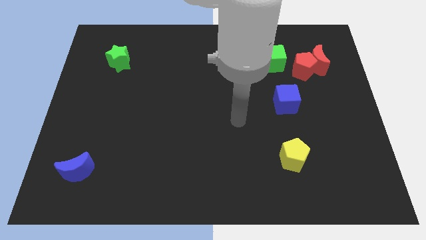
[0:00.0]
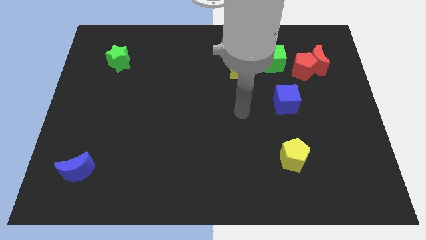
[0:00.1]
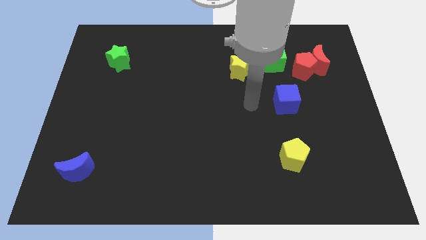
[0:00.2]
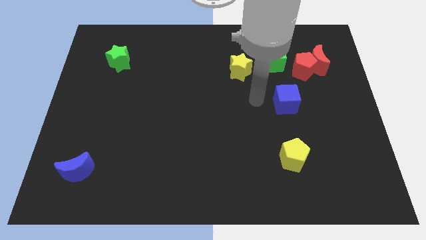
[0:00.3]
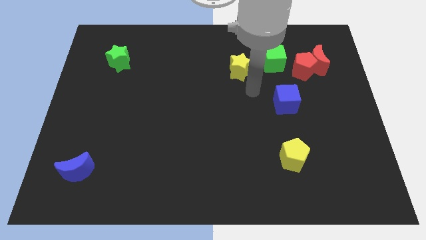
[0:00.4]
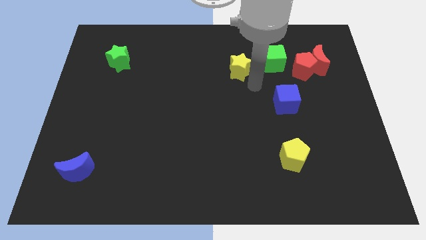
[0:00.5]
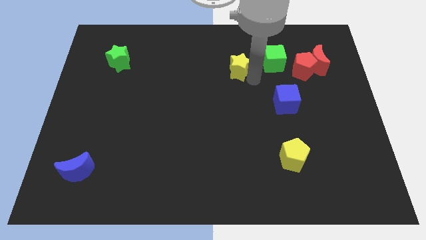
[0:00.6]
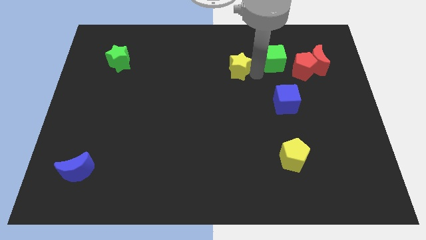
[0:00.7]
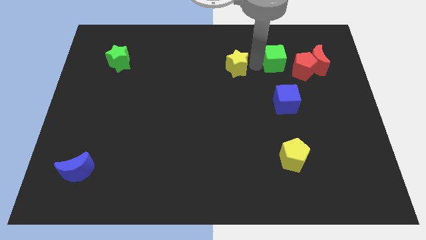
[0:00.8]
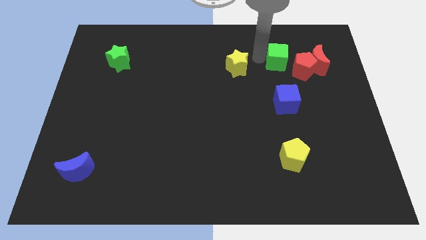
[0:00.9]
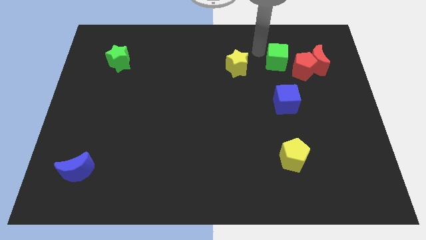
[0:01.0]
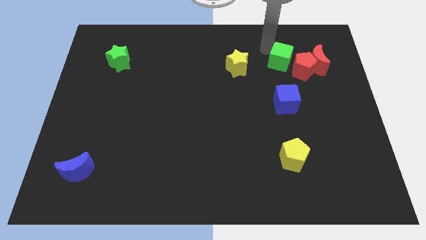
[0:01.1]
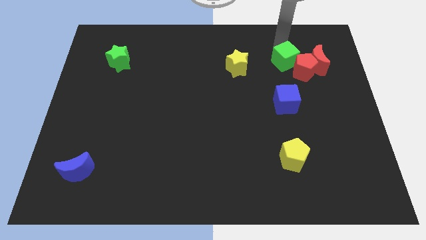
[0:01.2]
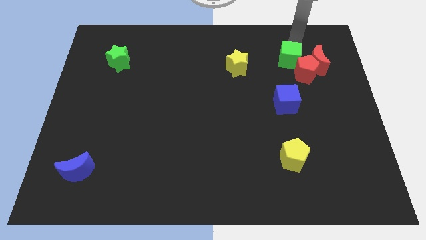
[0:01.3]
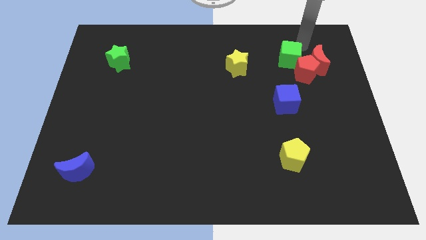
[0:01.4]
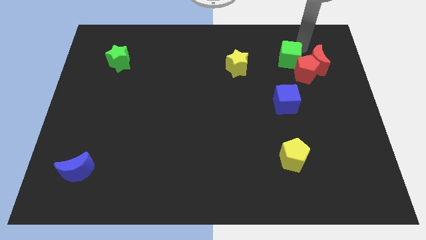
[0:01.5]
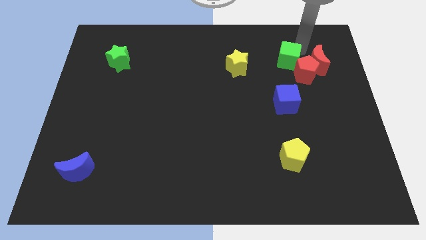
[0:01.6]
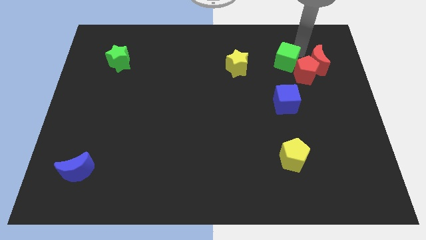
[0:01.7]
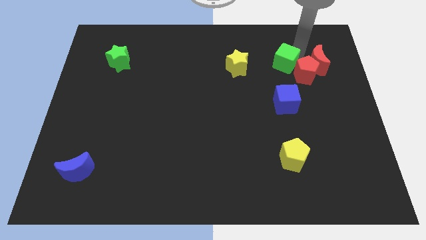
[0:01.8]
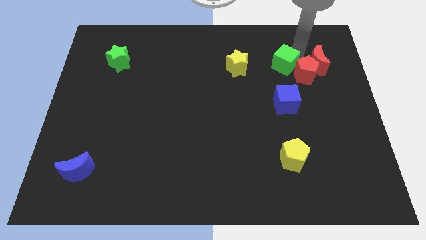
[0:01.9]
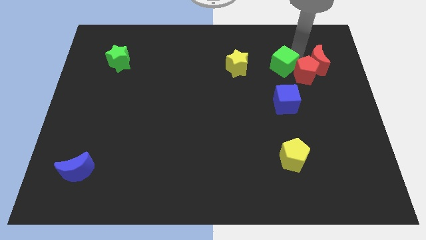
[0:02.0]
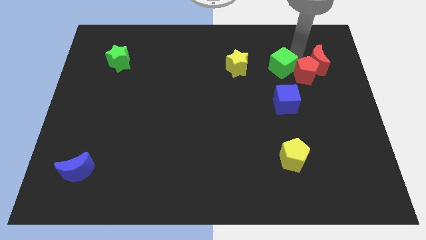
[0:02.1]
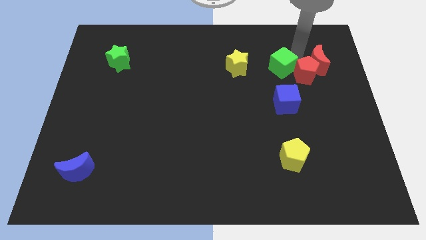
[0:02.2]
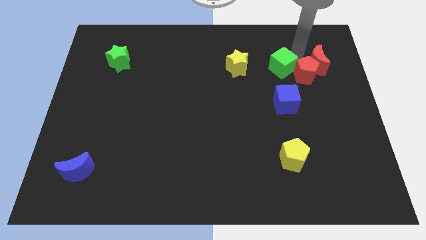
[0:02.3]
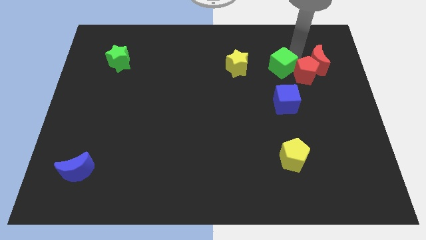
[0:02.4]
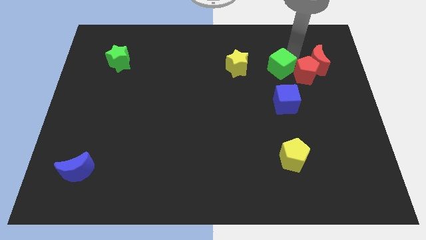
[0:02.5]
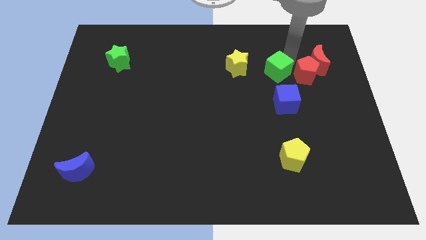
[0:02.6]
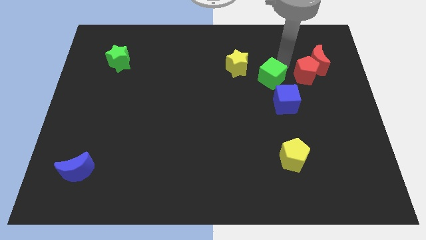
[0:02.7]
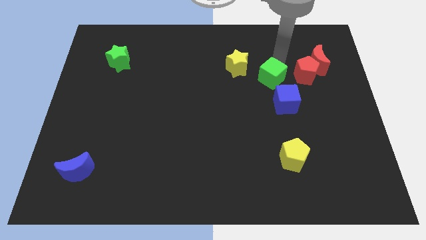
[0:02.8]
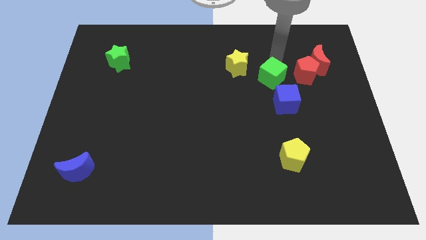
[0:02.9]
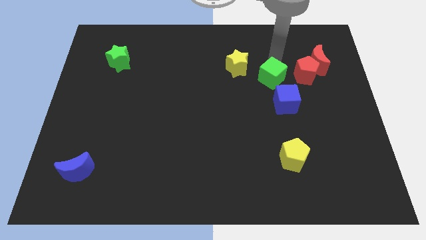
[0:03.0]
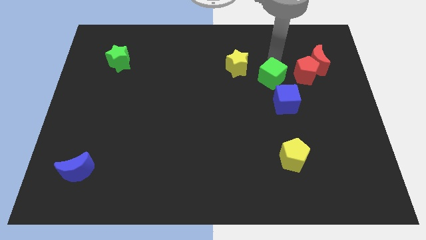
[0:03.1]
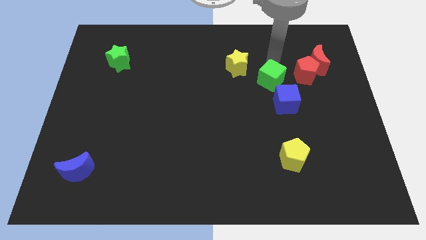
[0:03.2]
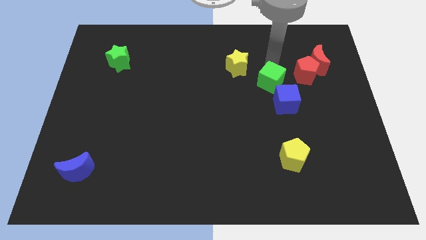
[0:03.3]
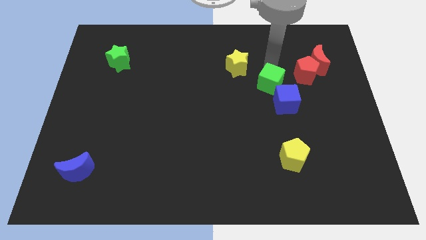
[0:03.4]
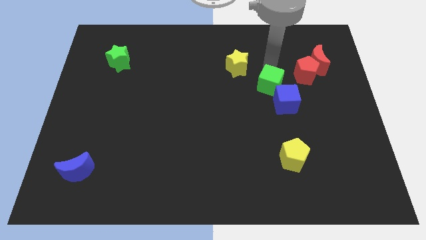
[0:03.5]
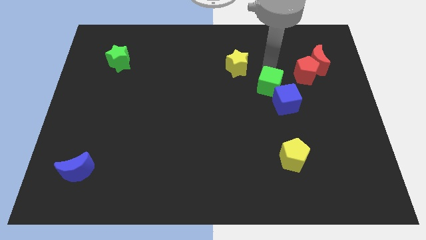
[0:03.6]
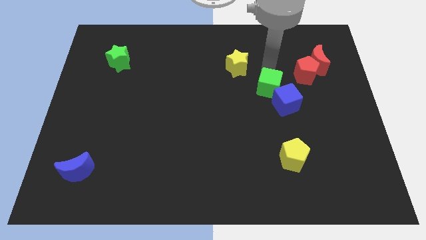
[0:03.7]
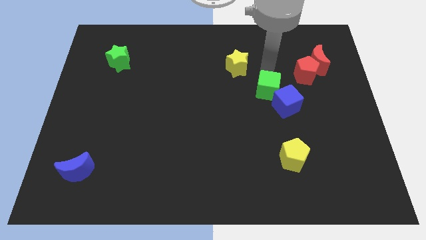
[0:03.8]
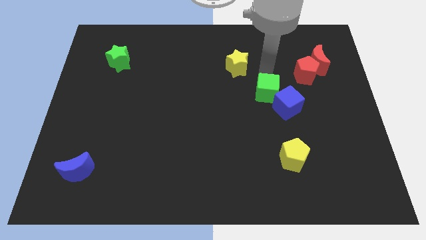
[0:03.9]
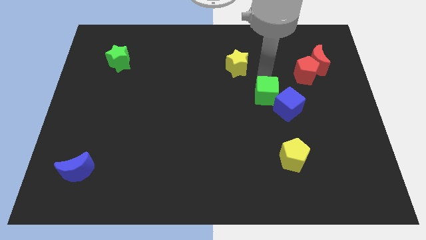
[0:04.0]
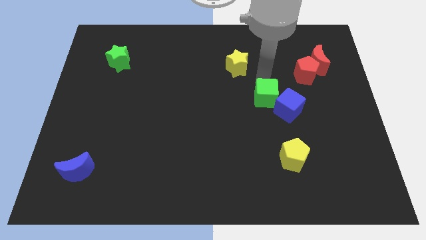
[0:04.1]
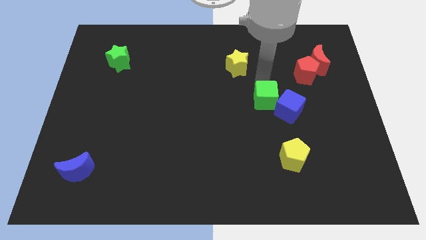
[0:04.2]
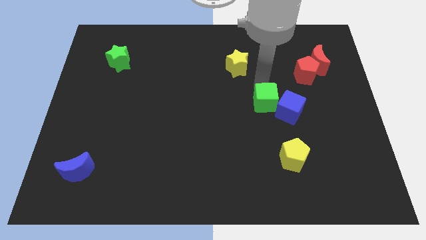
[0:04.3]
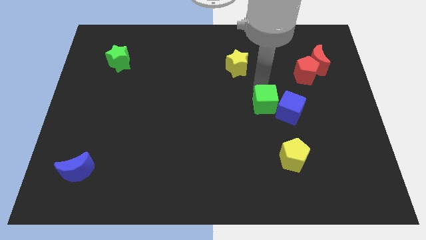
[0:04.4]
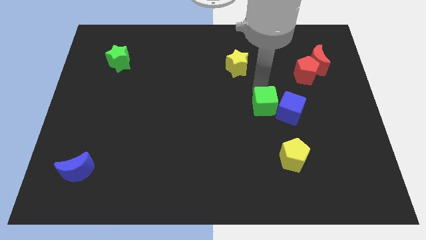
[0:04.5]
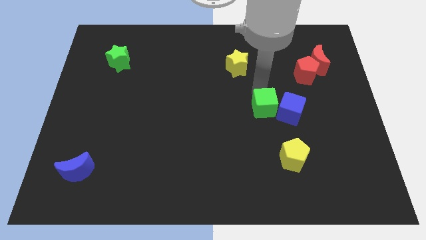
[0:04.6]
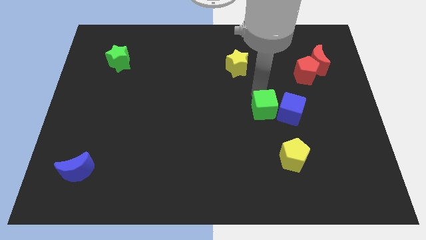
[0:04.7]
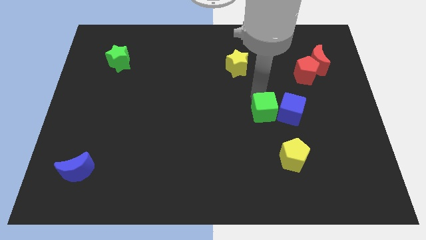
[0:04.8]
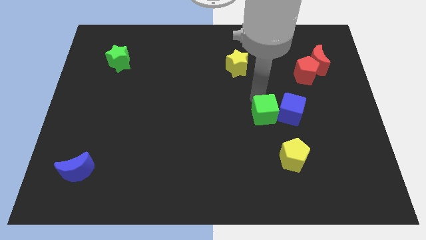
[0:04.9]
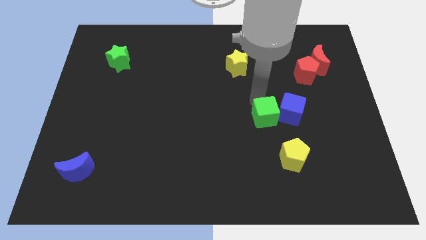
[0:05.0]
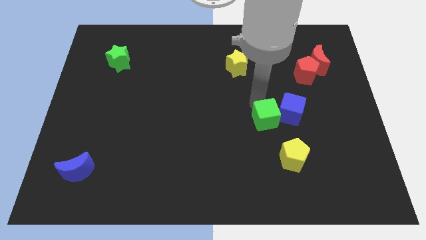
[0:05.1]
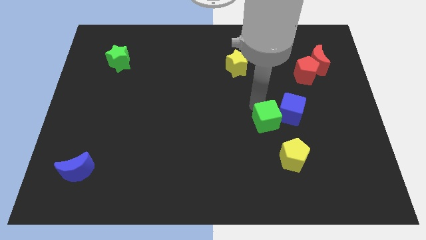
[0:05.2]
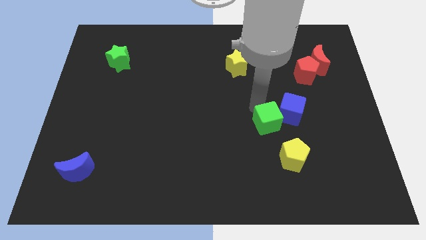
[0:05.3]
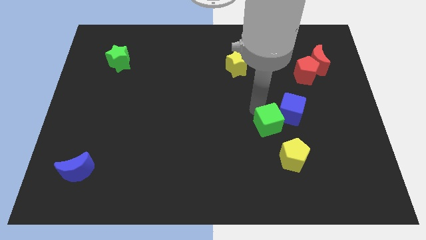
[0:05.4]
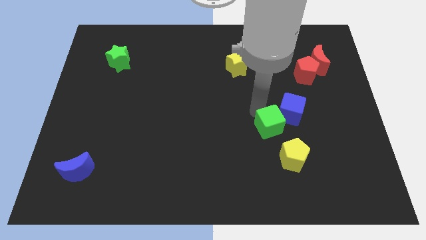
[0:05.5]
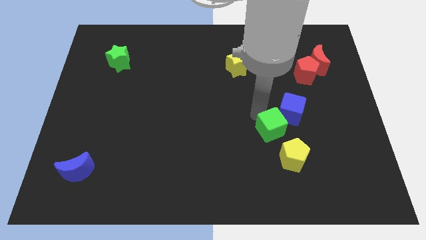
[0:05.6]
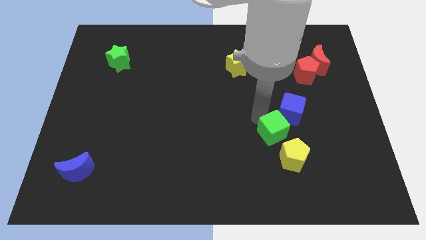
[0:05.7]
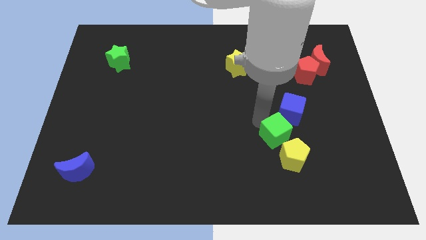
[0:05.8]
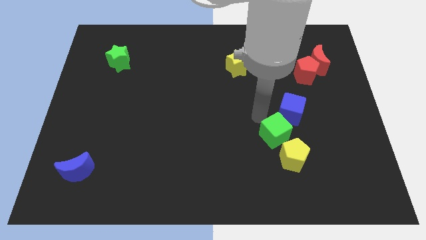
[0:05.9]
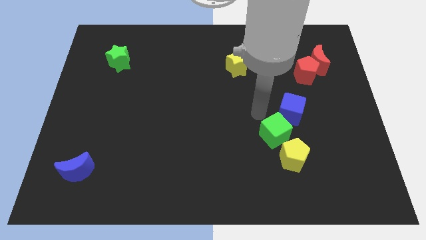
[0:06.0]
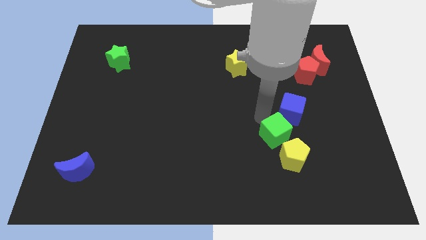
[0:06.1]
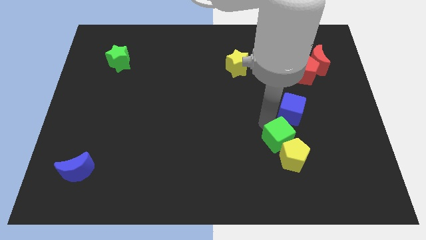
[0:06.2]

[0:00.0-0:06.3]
put the green cube next to the yellow pentagon
